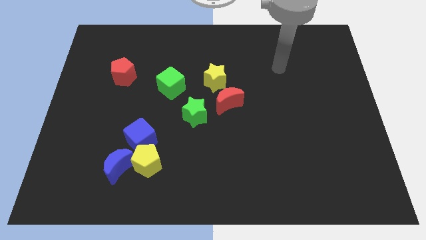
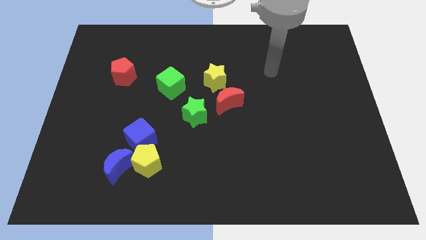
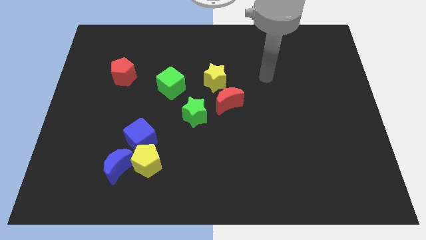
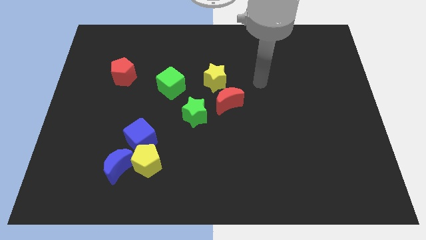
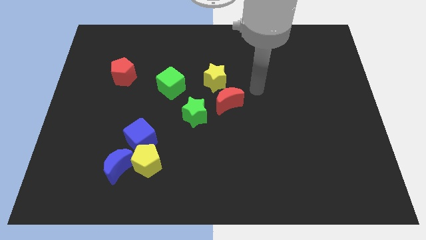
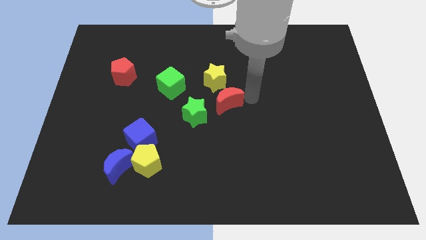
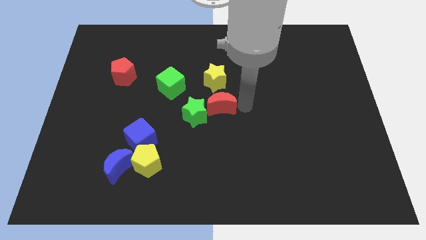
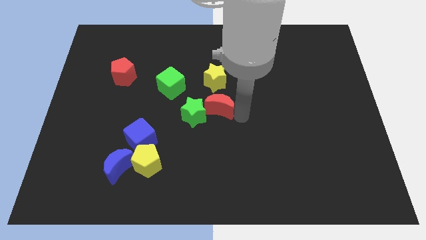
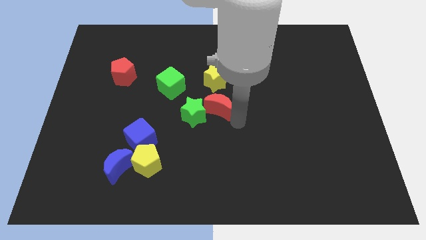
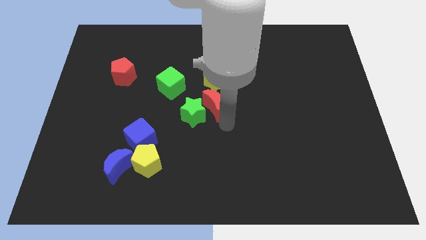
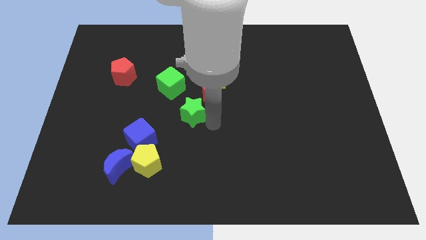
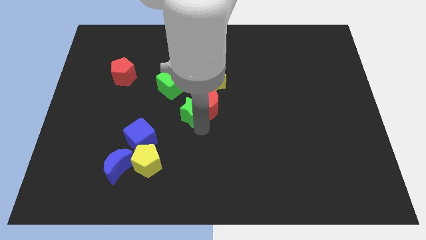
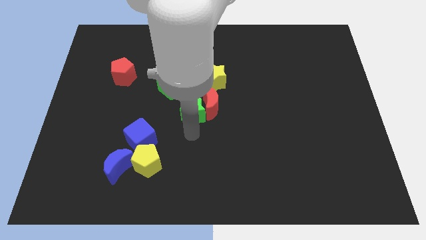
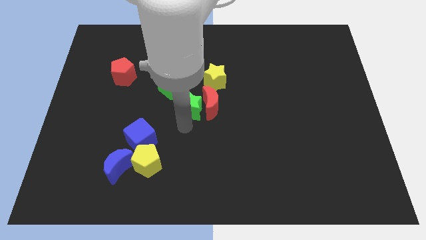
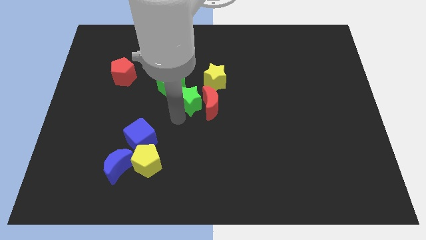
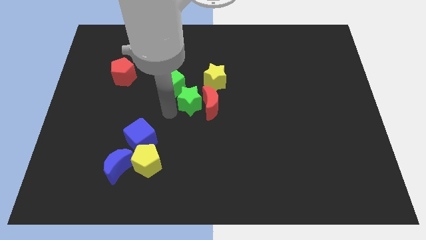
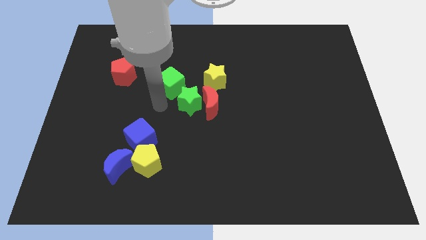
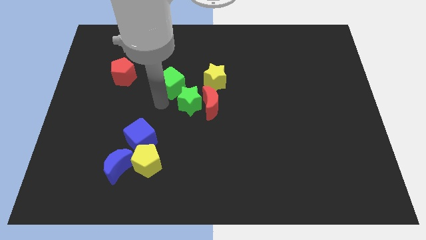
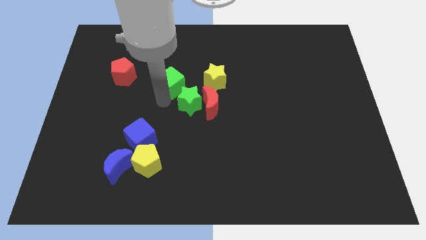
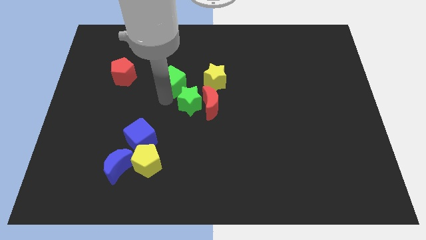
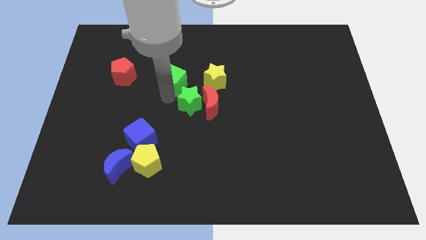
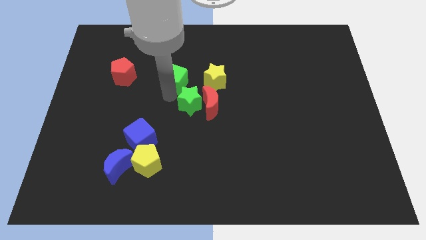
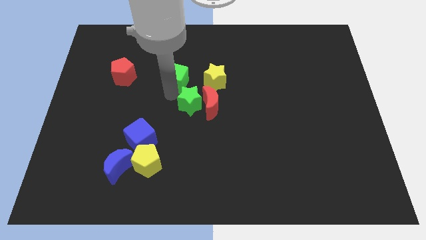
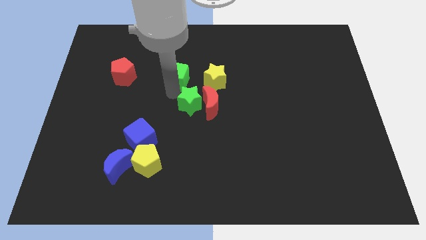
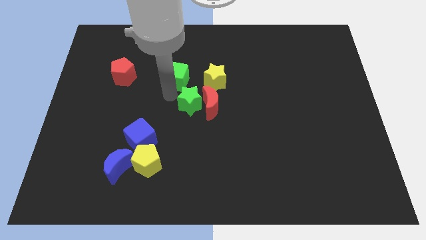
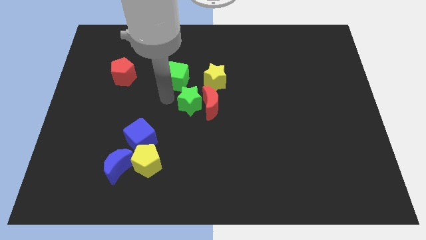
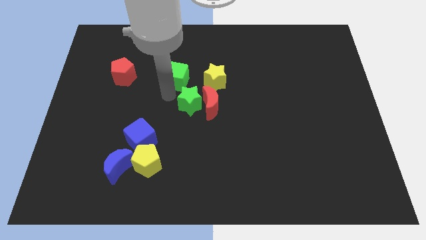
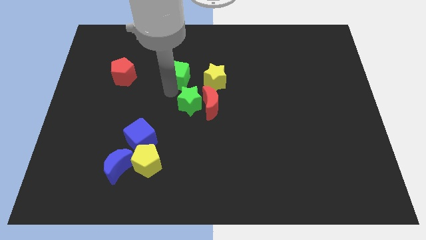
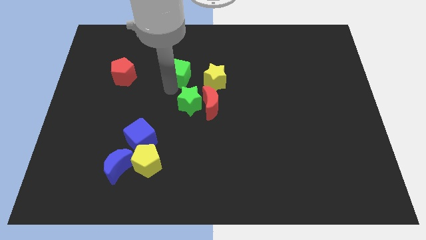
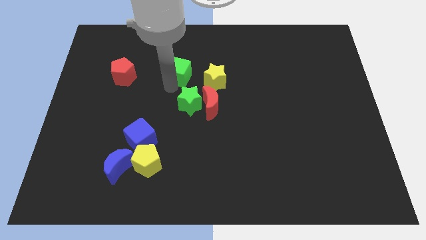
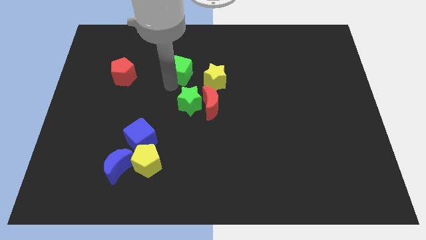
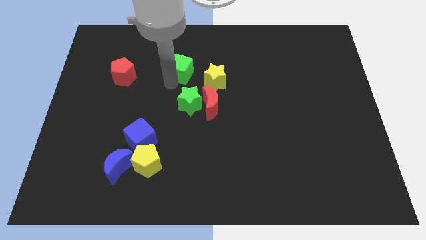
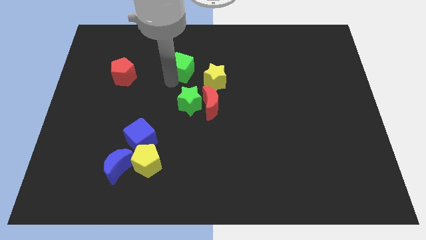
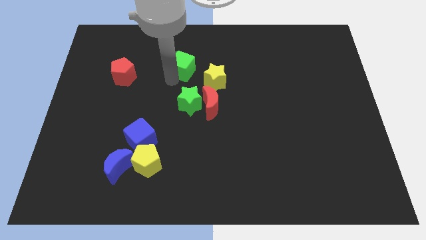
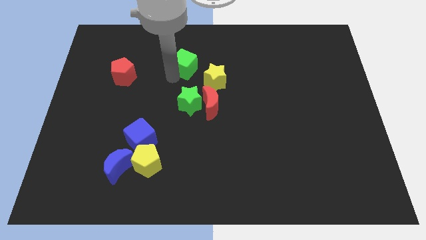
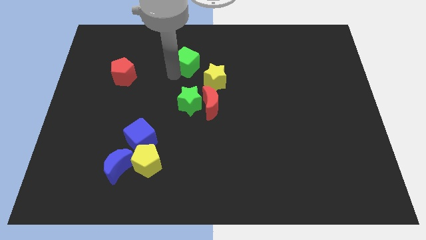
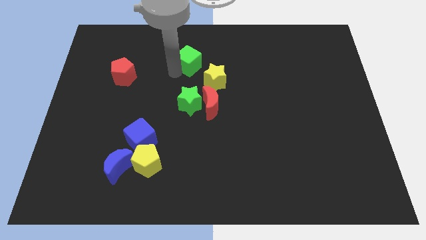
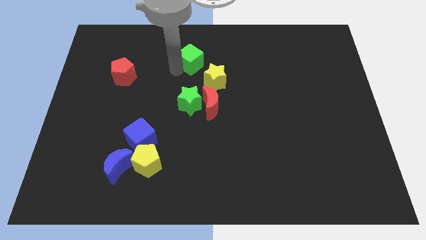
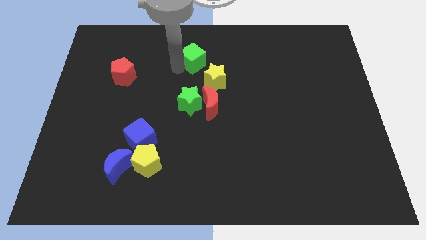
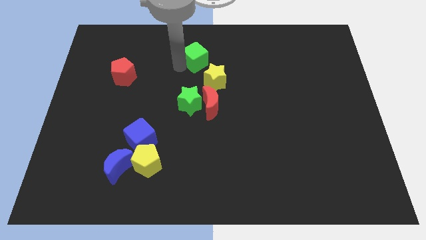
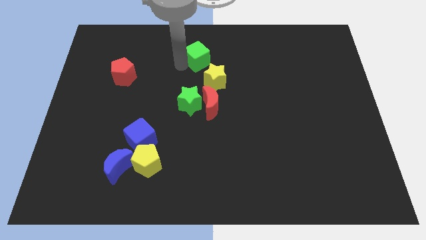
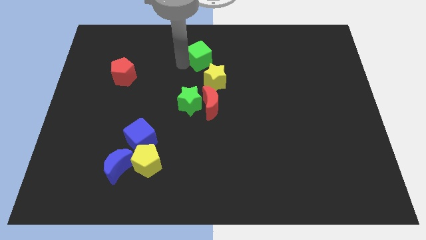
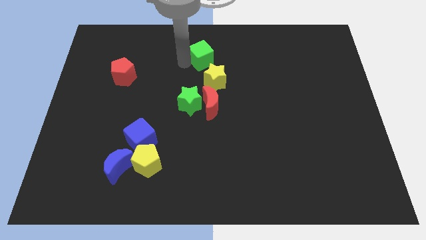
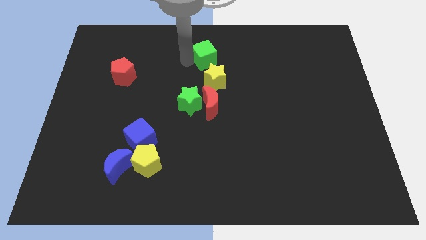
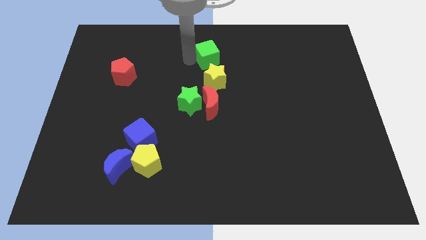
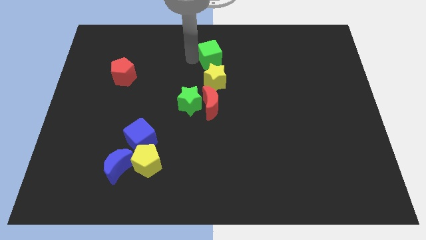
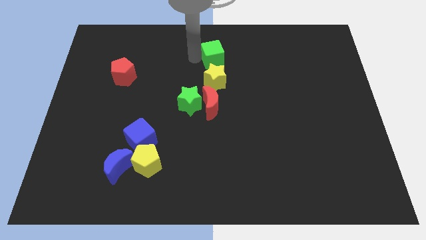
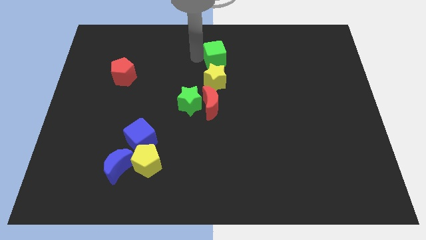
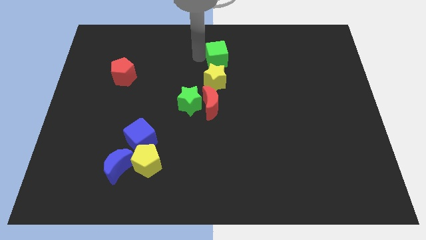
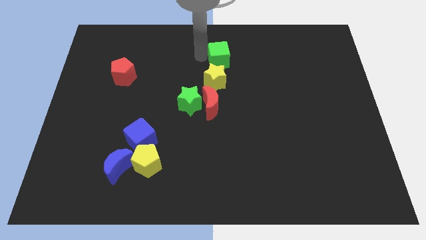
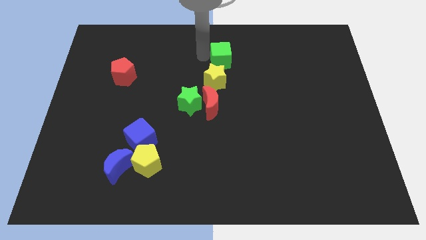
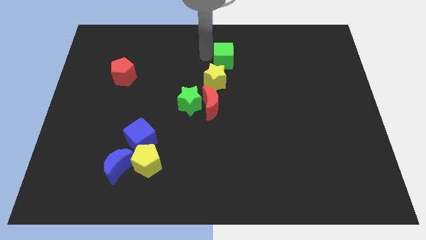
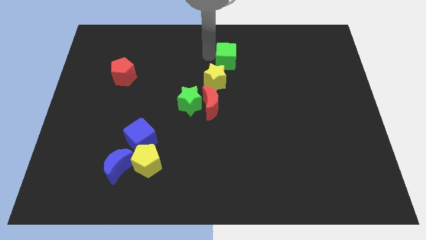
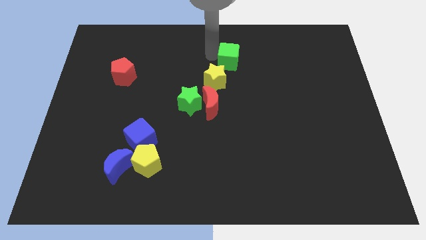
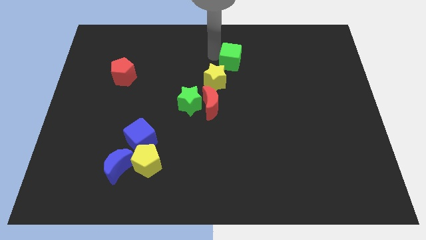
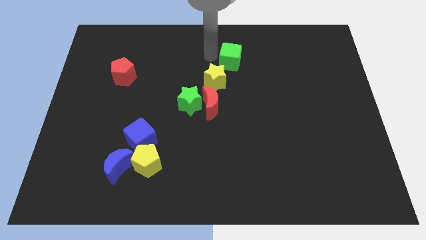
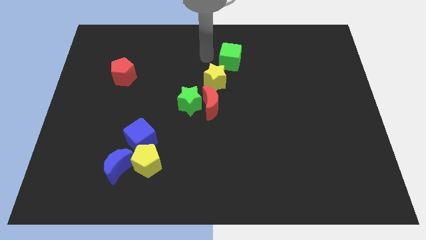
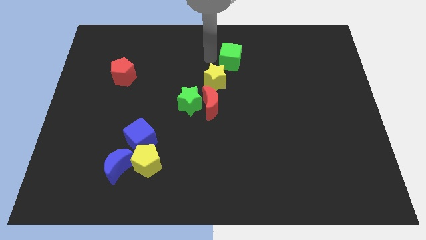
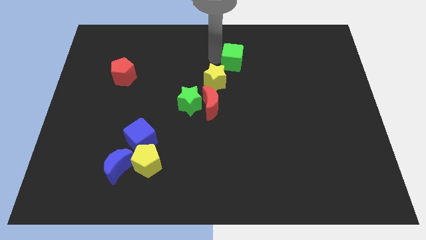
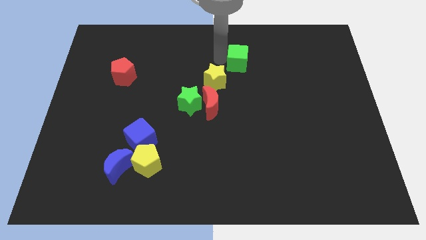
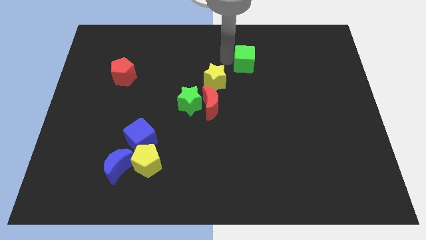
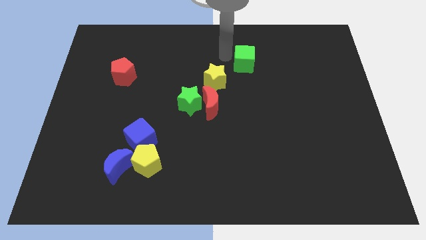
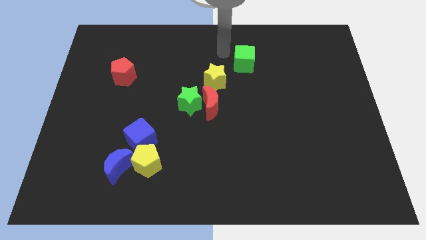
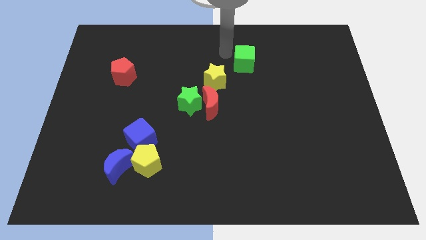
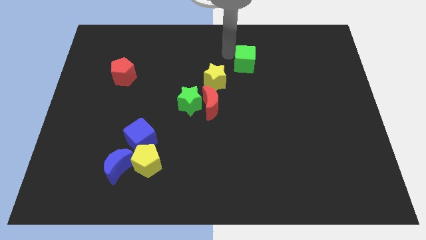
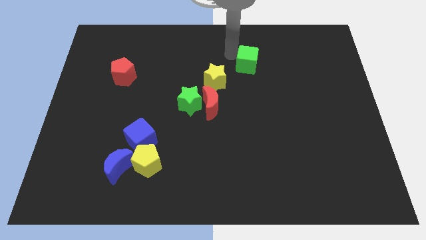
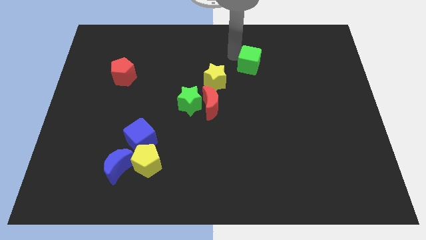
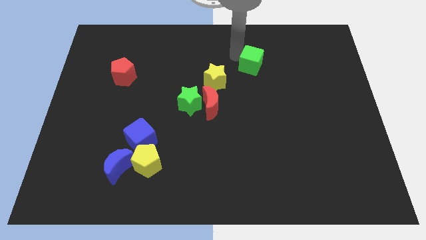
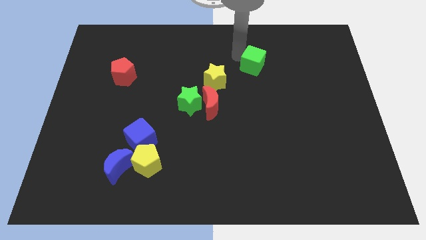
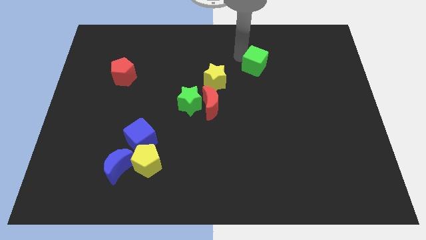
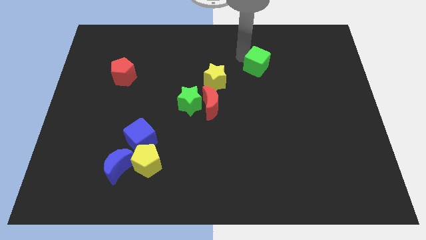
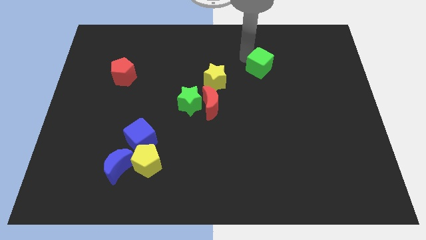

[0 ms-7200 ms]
slide the green cube to the right

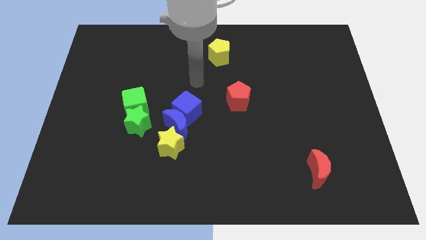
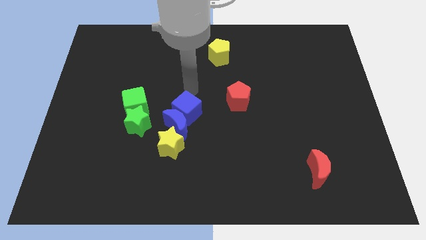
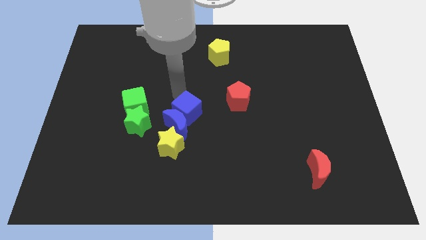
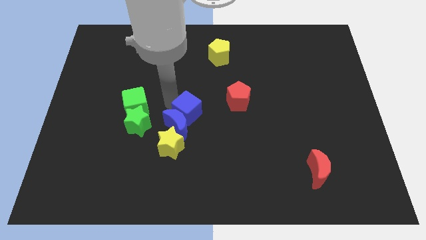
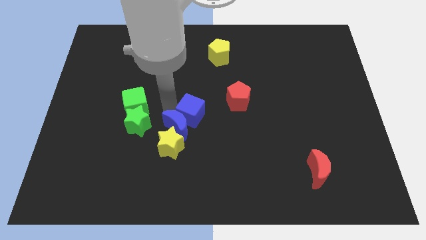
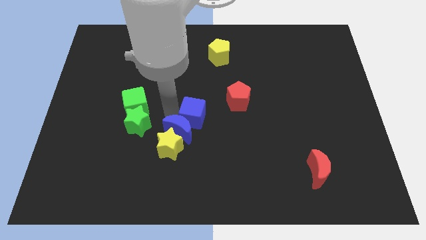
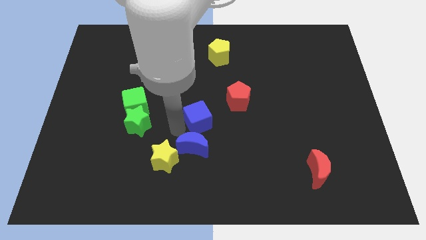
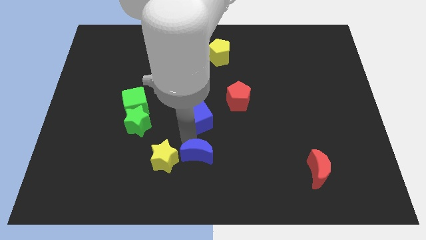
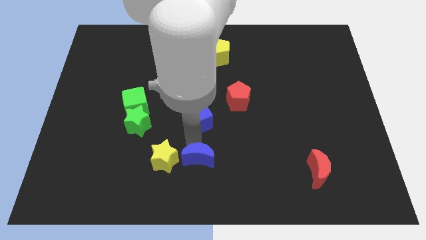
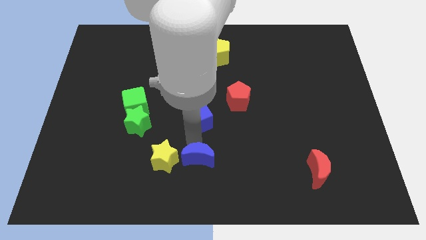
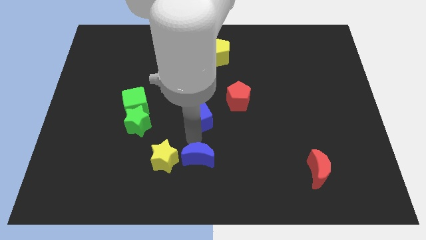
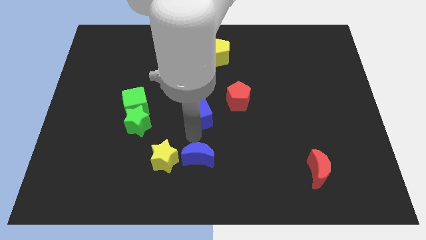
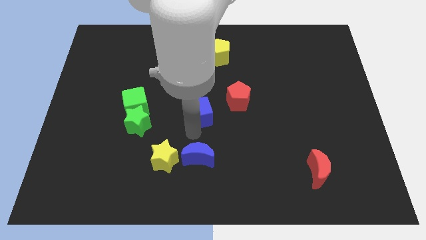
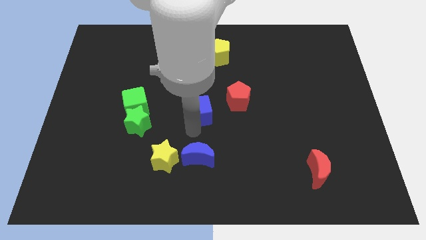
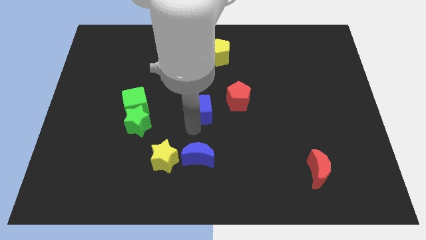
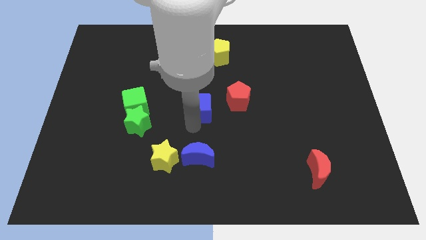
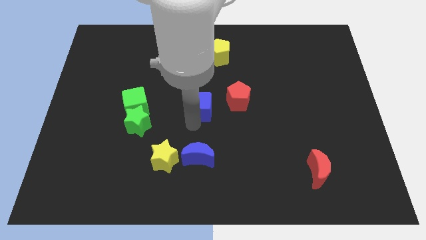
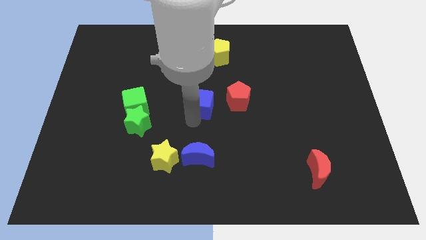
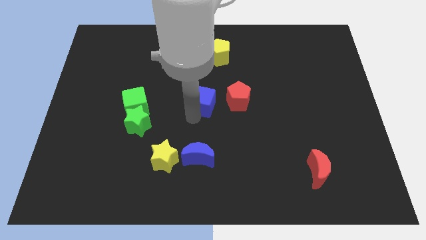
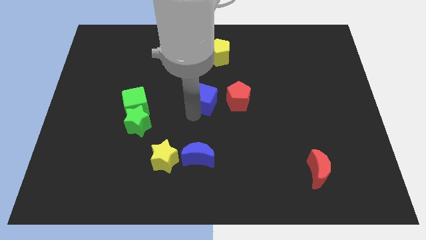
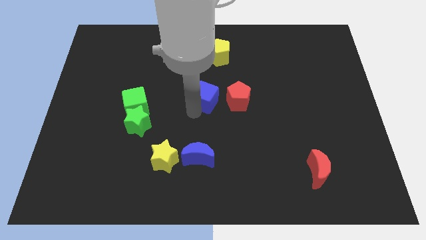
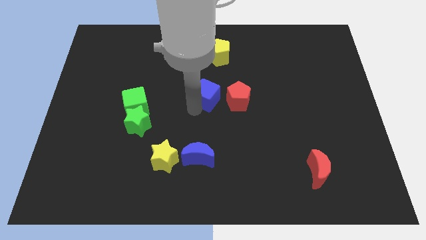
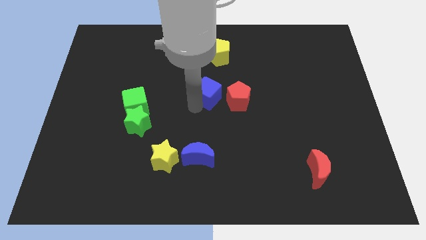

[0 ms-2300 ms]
push the blue cube slightly up and then to the right
